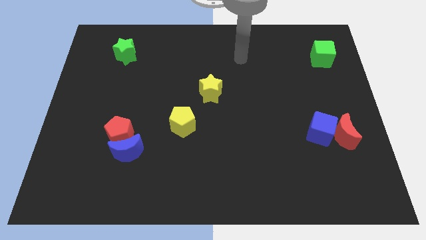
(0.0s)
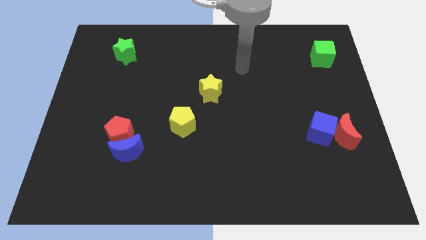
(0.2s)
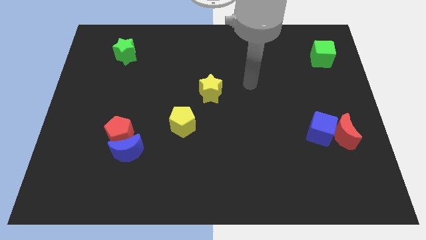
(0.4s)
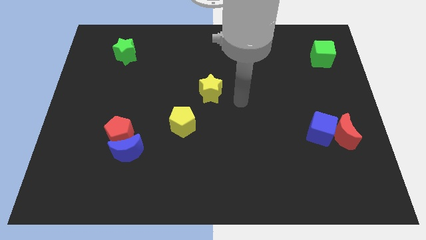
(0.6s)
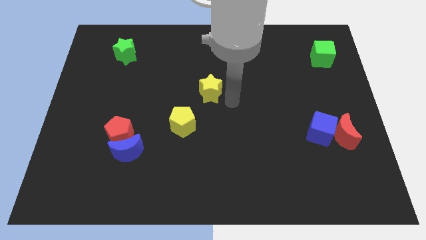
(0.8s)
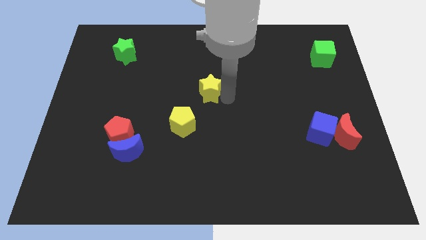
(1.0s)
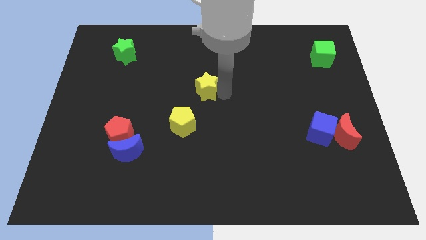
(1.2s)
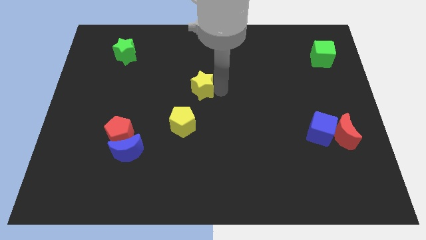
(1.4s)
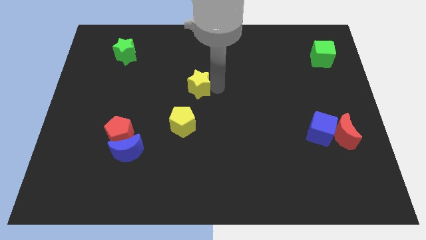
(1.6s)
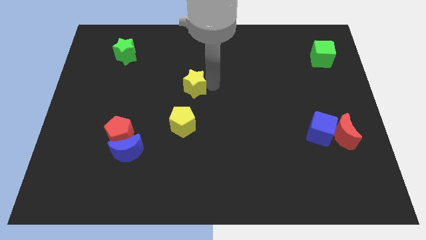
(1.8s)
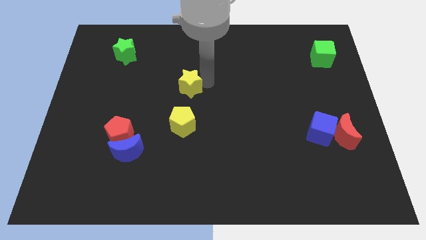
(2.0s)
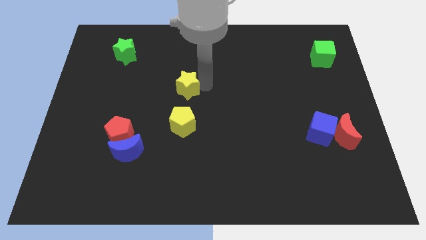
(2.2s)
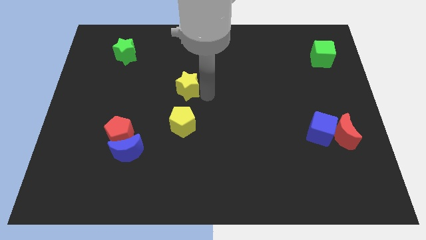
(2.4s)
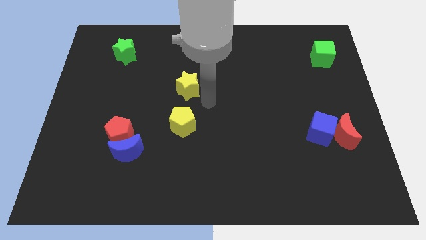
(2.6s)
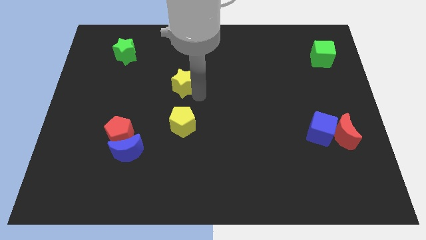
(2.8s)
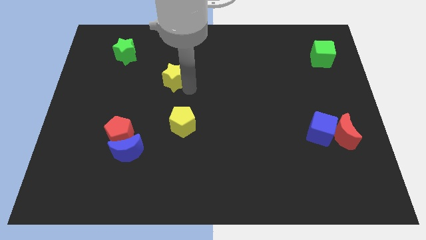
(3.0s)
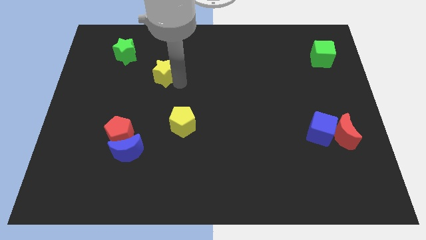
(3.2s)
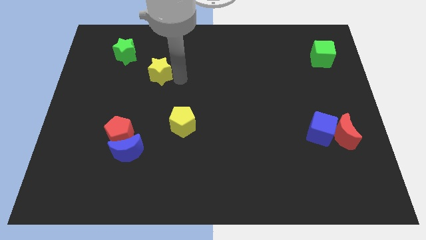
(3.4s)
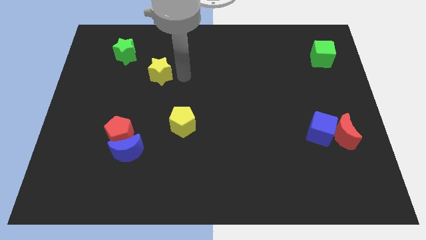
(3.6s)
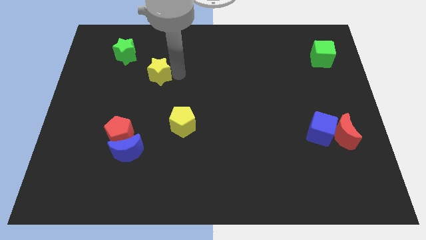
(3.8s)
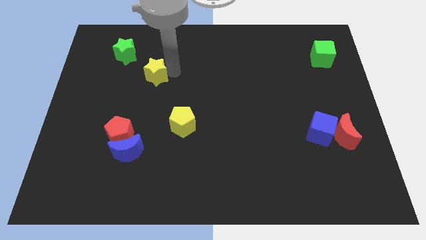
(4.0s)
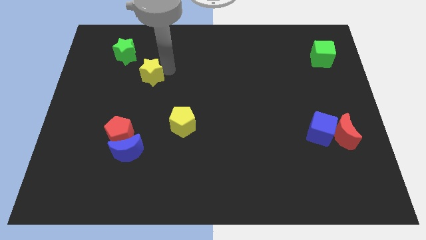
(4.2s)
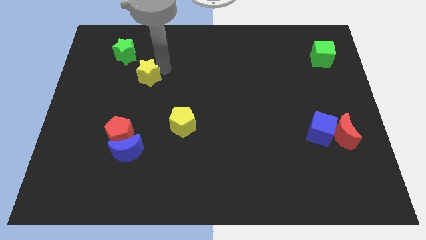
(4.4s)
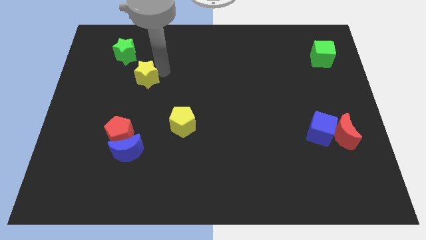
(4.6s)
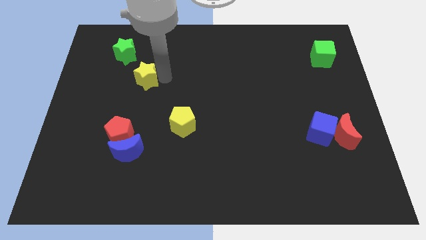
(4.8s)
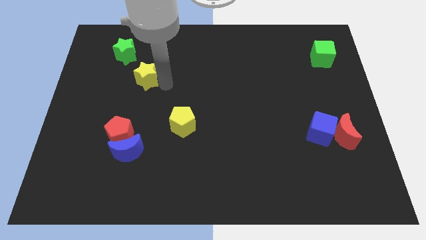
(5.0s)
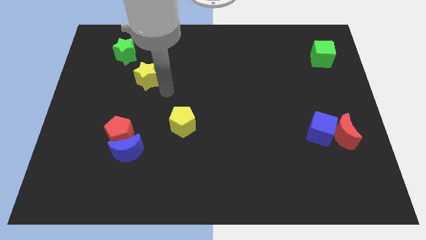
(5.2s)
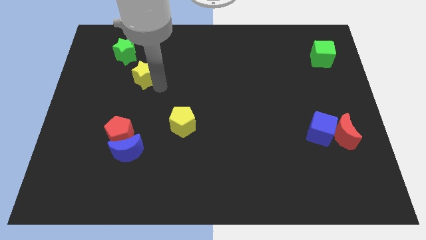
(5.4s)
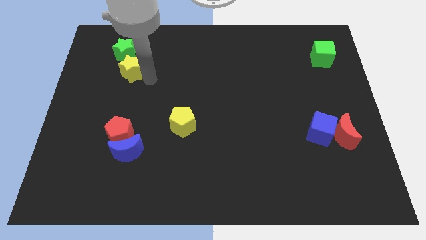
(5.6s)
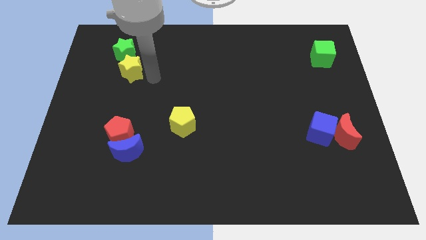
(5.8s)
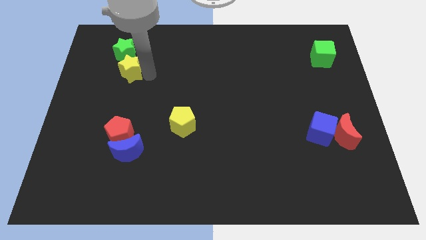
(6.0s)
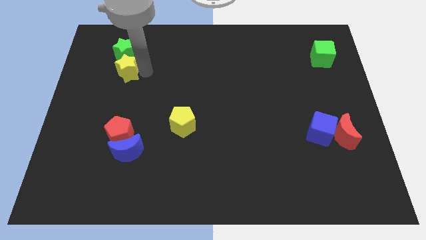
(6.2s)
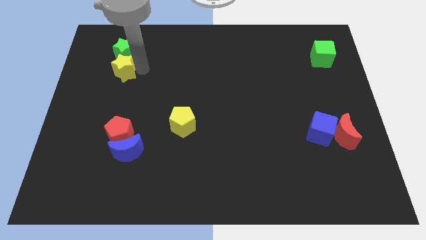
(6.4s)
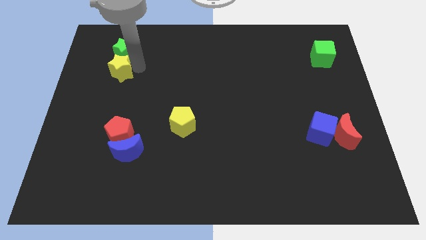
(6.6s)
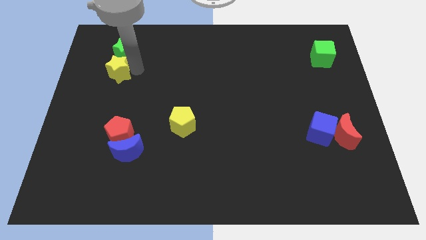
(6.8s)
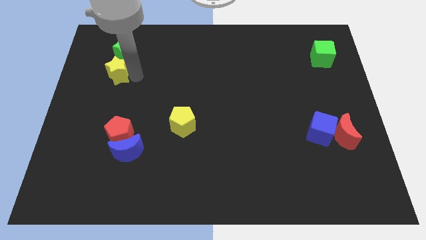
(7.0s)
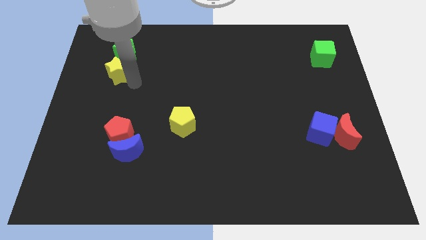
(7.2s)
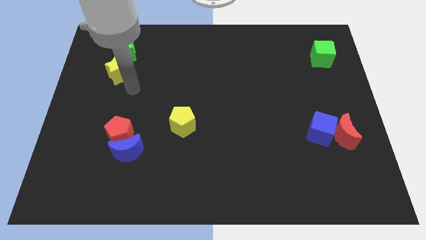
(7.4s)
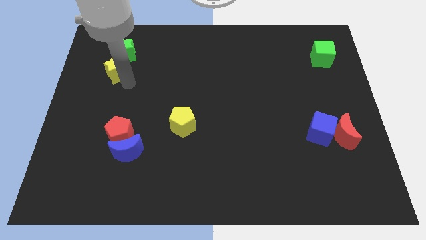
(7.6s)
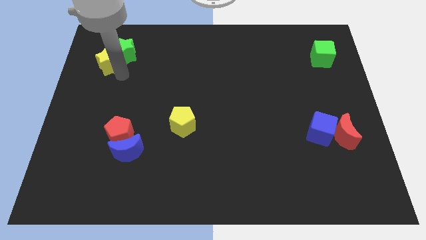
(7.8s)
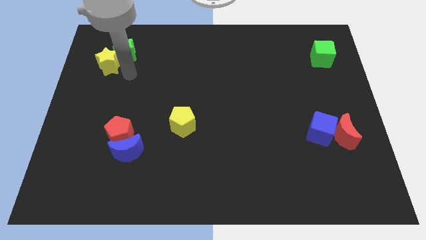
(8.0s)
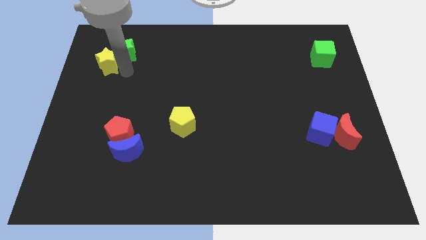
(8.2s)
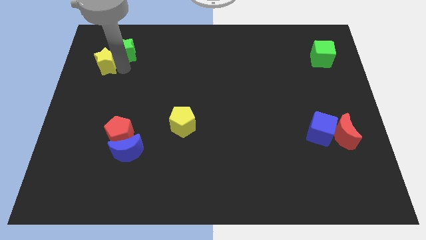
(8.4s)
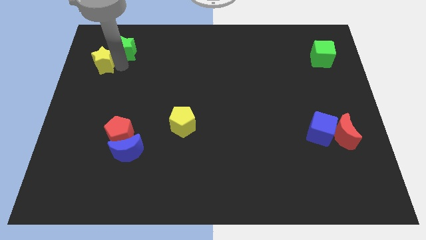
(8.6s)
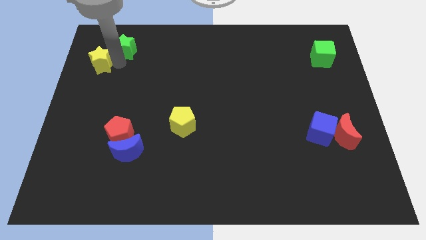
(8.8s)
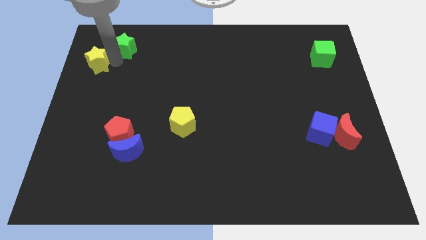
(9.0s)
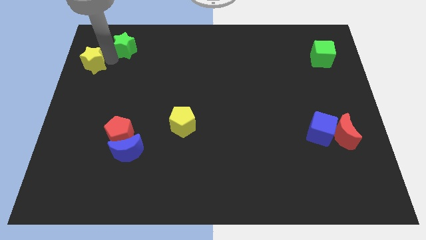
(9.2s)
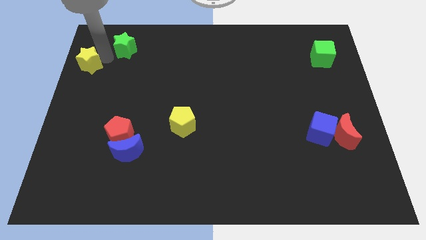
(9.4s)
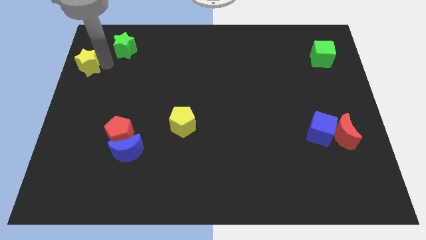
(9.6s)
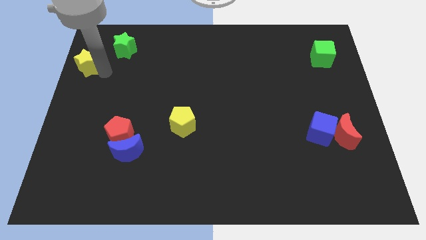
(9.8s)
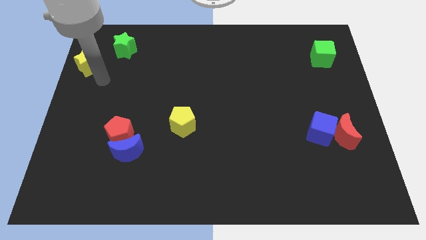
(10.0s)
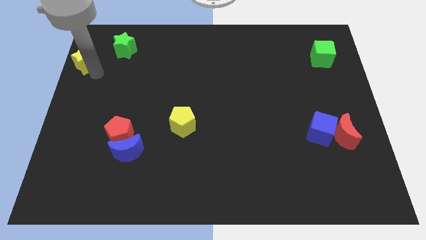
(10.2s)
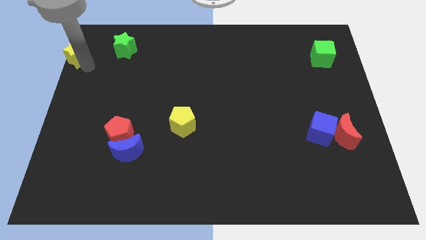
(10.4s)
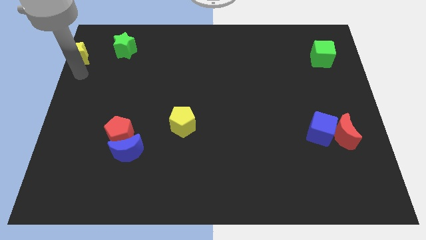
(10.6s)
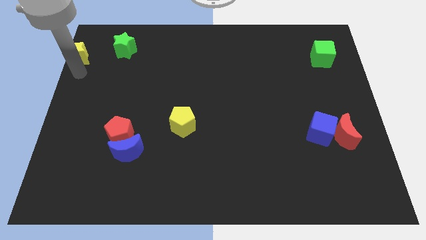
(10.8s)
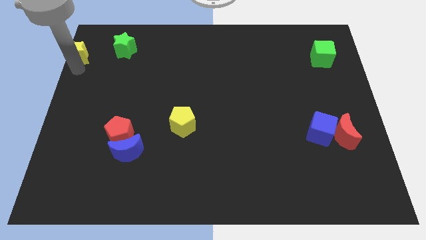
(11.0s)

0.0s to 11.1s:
slide the yellow star to the top left of the board

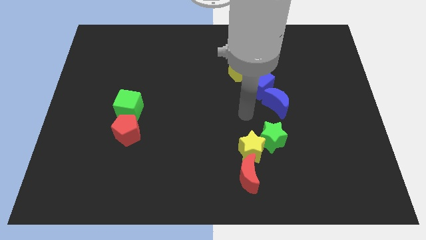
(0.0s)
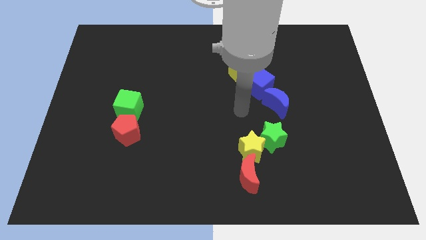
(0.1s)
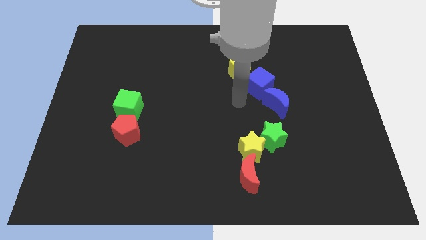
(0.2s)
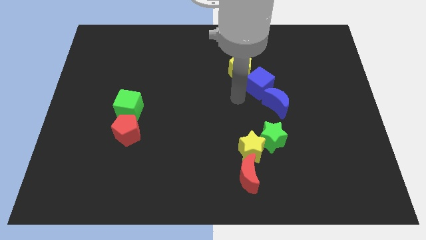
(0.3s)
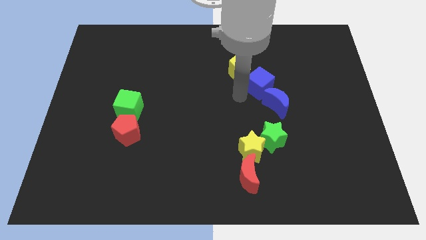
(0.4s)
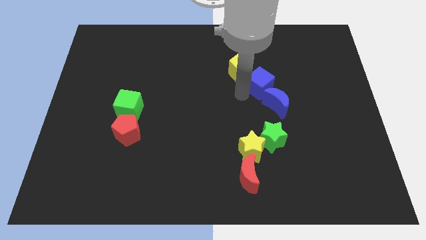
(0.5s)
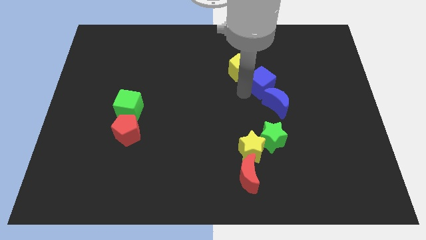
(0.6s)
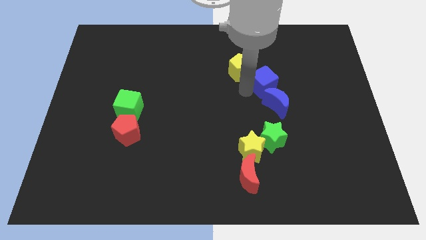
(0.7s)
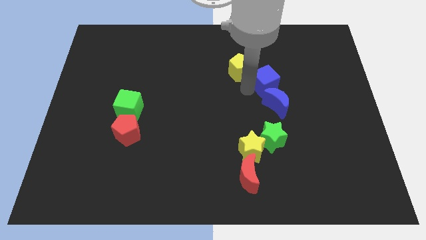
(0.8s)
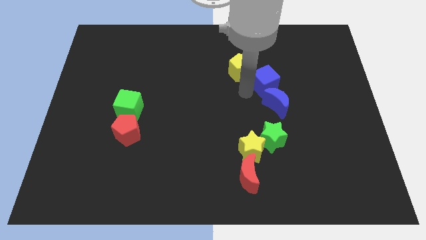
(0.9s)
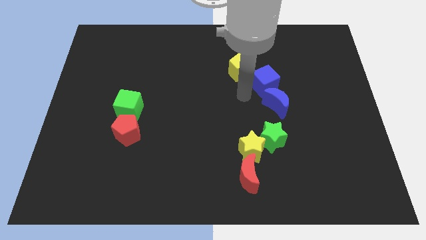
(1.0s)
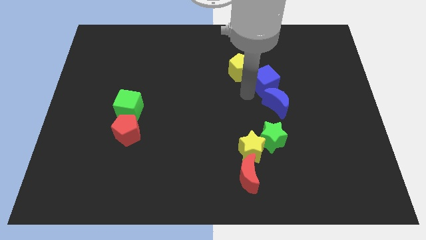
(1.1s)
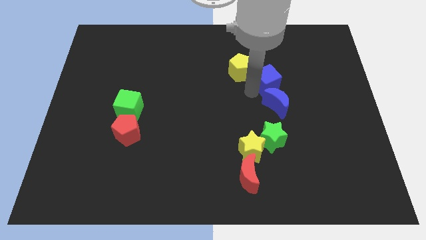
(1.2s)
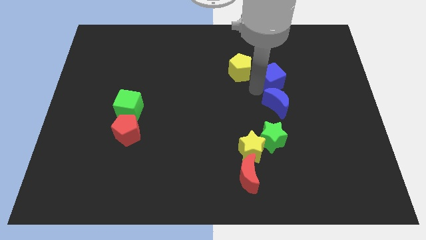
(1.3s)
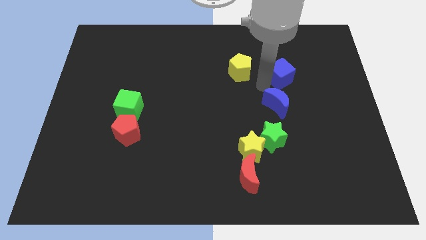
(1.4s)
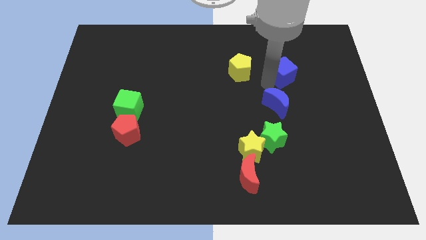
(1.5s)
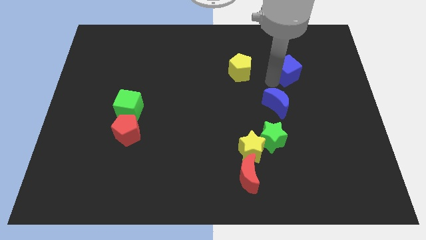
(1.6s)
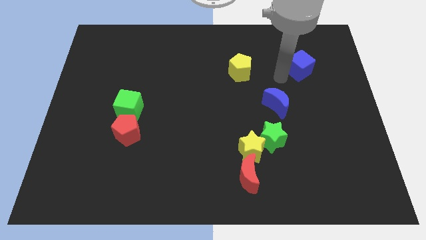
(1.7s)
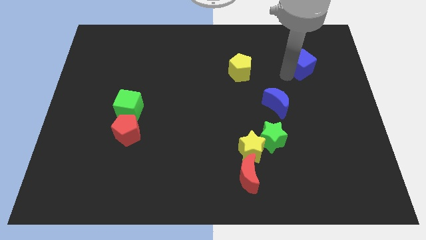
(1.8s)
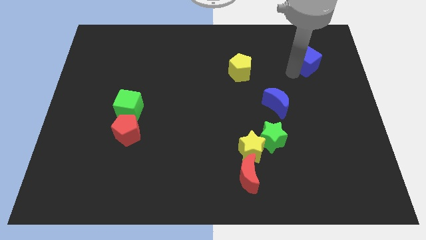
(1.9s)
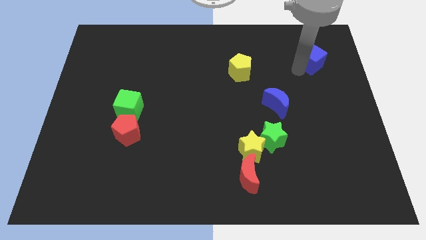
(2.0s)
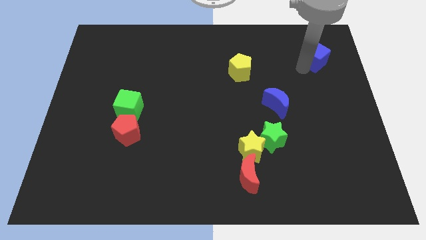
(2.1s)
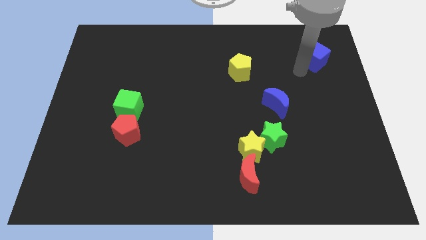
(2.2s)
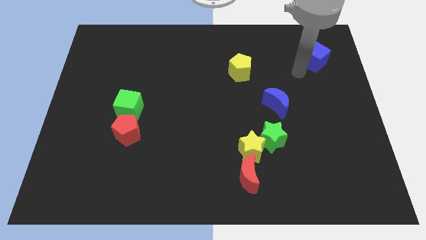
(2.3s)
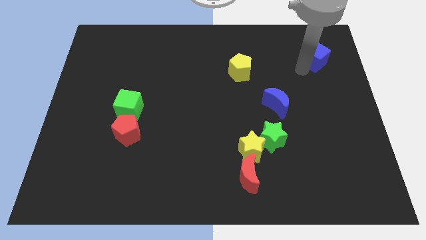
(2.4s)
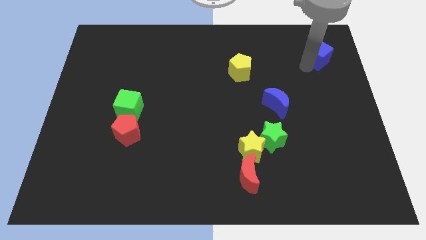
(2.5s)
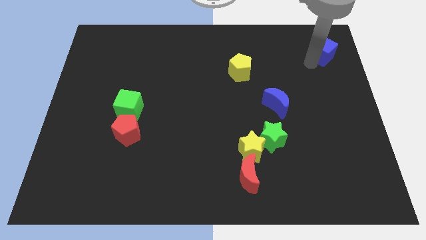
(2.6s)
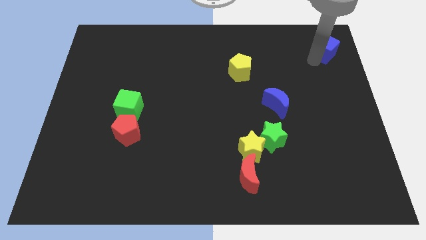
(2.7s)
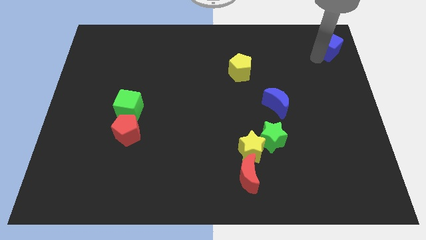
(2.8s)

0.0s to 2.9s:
move the blue cube to the top right corner
